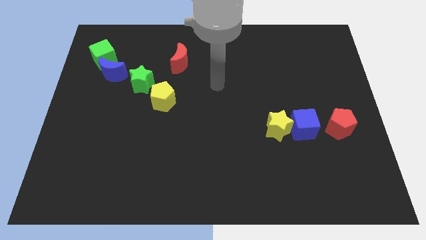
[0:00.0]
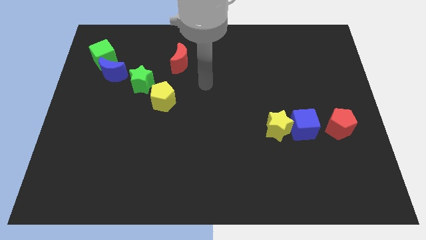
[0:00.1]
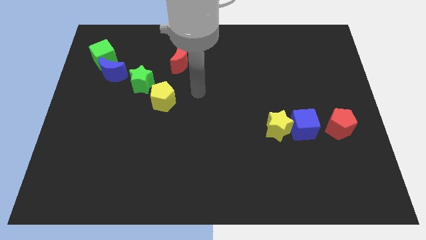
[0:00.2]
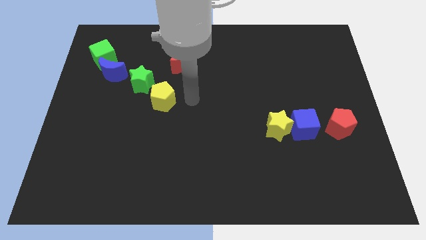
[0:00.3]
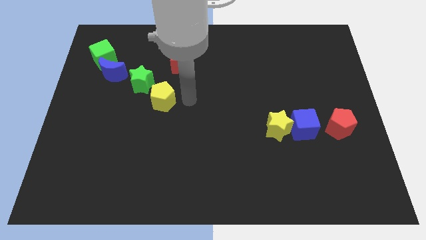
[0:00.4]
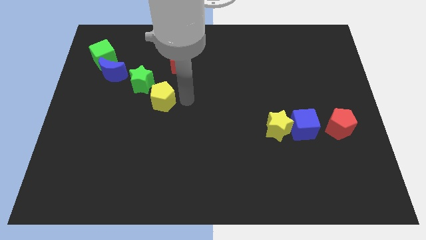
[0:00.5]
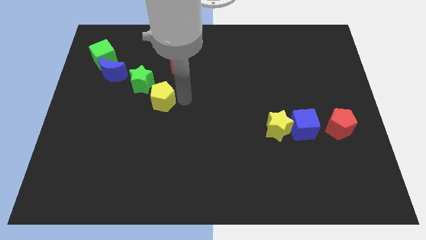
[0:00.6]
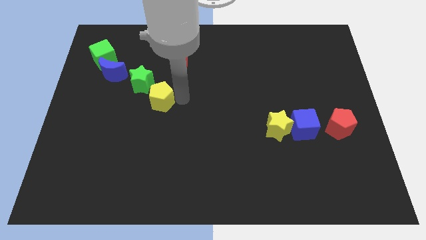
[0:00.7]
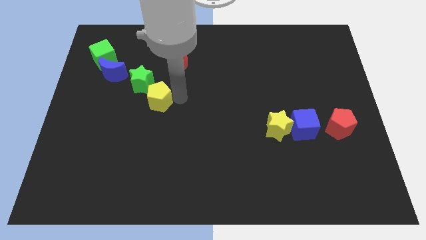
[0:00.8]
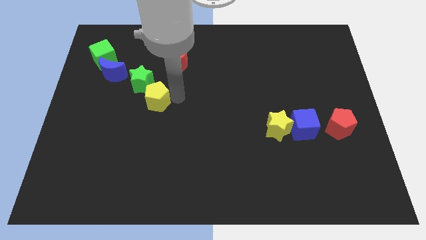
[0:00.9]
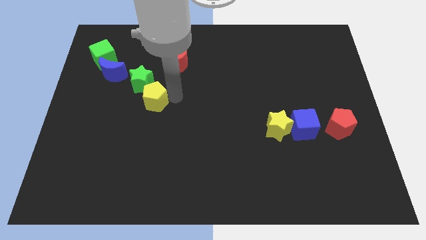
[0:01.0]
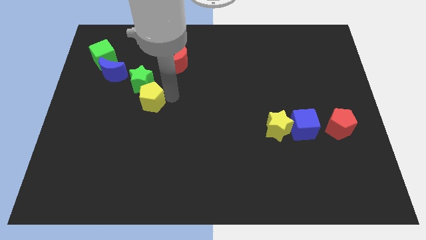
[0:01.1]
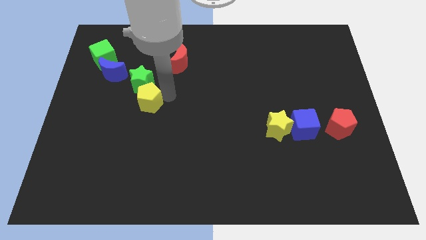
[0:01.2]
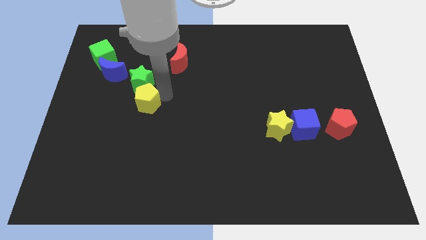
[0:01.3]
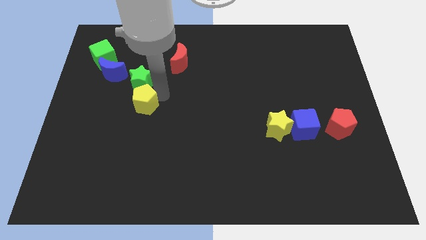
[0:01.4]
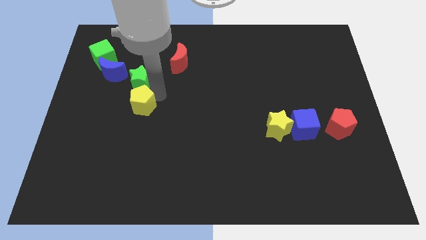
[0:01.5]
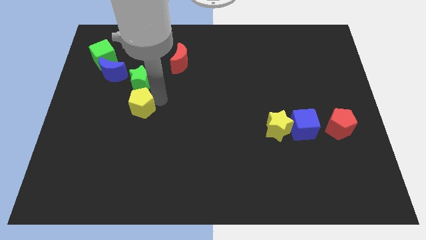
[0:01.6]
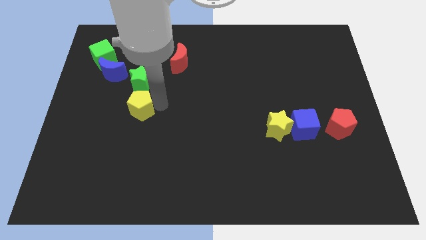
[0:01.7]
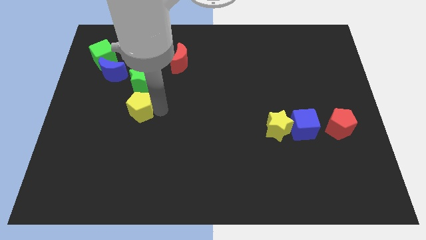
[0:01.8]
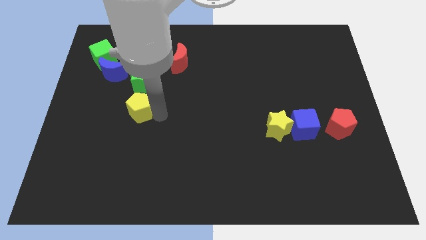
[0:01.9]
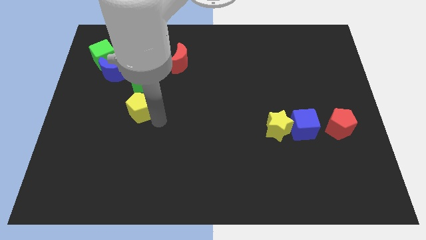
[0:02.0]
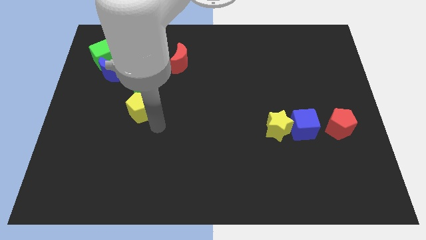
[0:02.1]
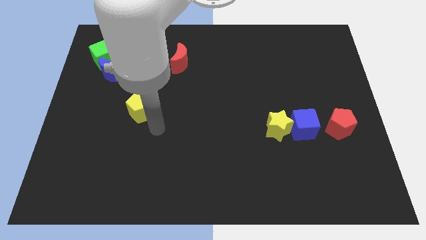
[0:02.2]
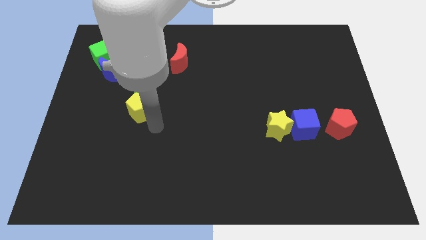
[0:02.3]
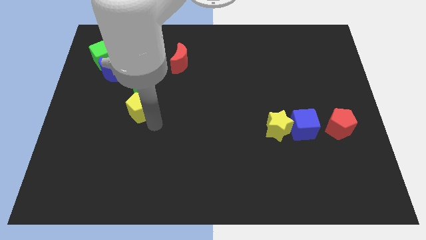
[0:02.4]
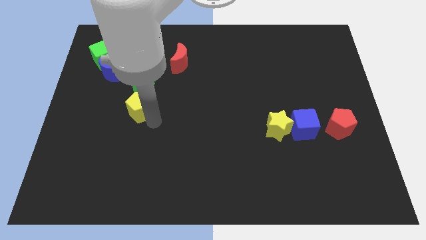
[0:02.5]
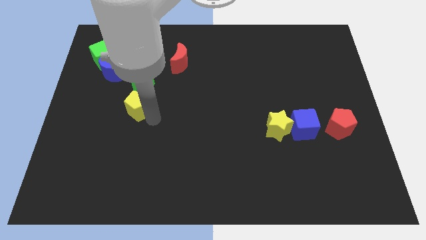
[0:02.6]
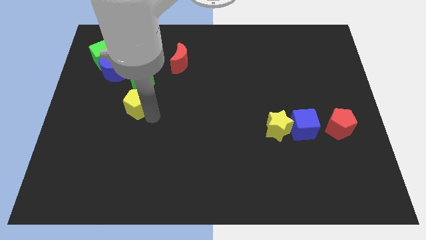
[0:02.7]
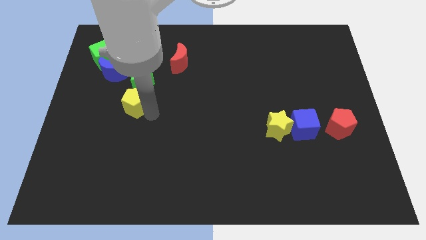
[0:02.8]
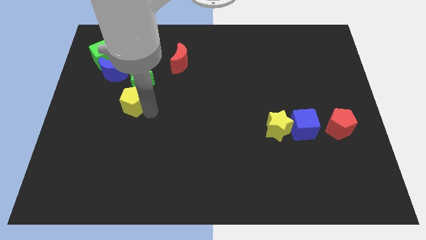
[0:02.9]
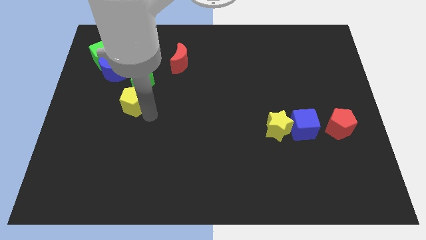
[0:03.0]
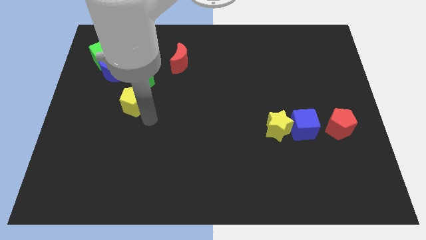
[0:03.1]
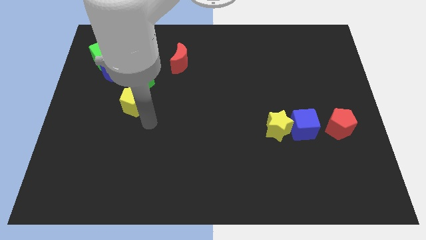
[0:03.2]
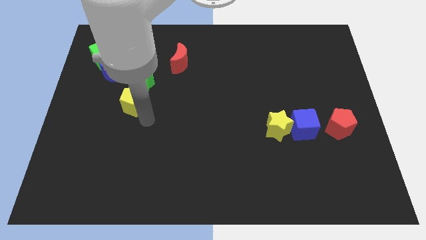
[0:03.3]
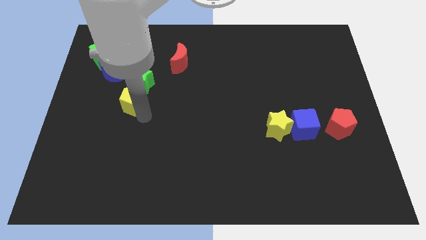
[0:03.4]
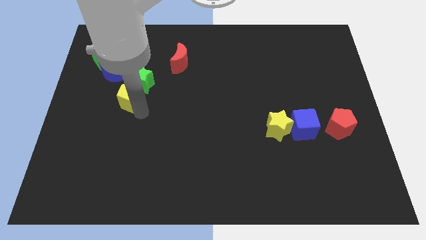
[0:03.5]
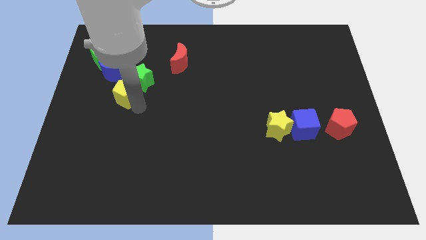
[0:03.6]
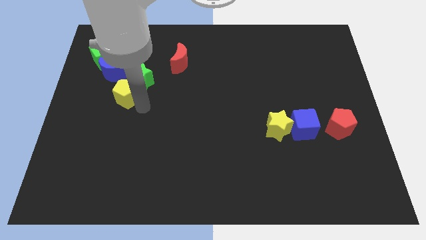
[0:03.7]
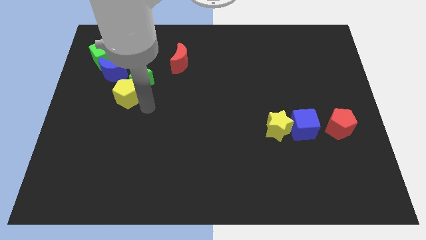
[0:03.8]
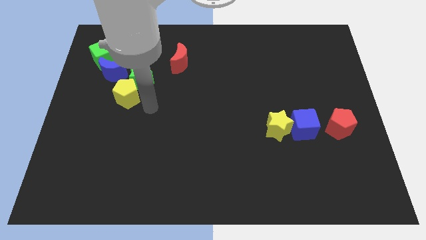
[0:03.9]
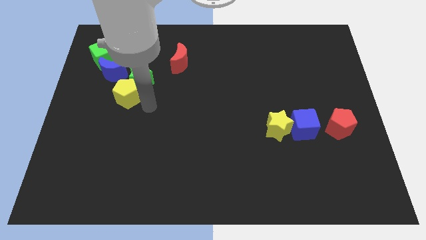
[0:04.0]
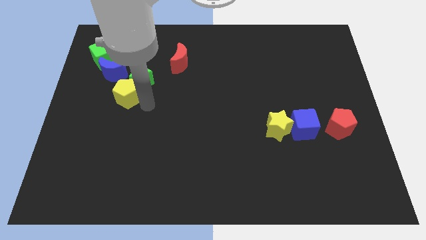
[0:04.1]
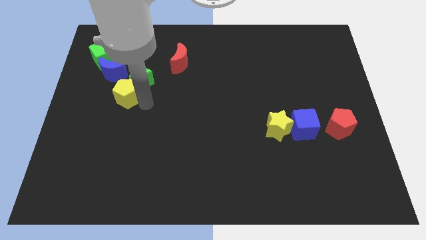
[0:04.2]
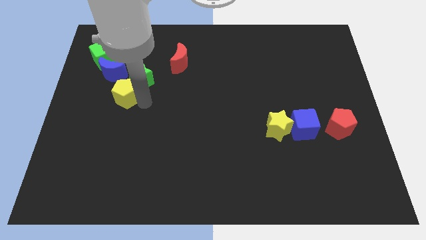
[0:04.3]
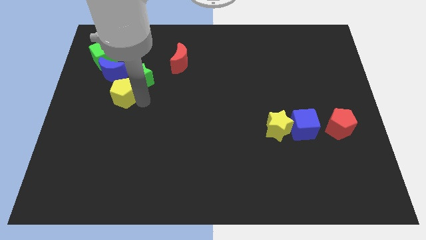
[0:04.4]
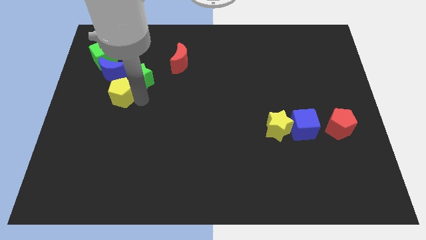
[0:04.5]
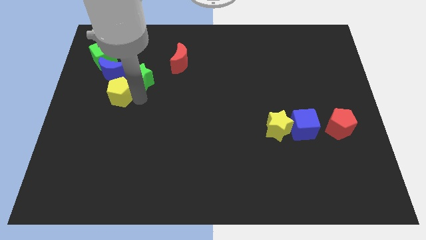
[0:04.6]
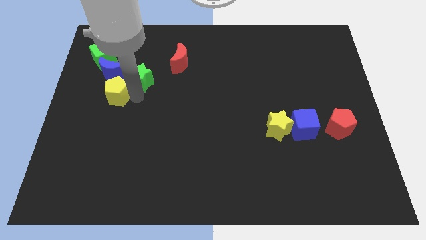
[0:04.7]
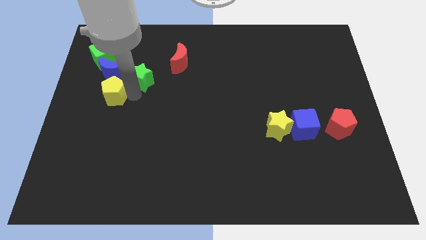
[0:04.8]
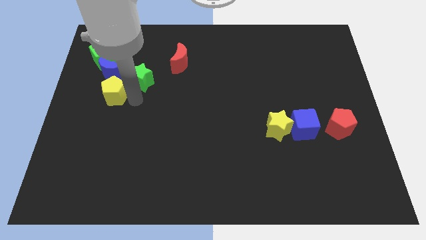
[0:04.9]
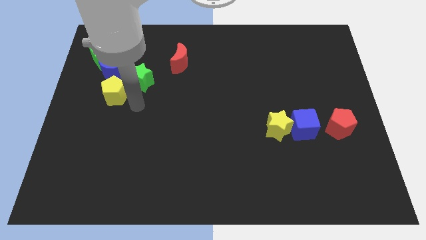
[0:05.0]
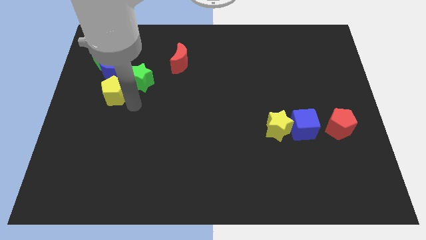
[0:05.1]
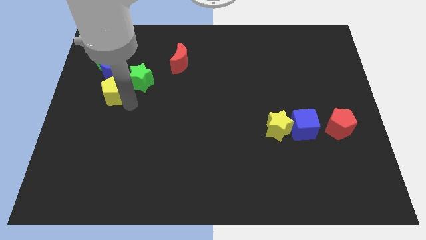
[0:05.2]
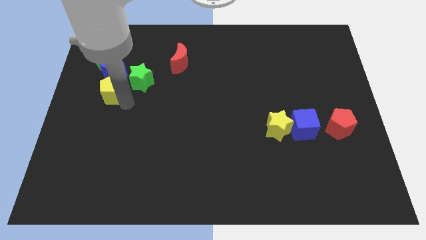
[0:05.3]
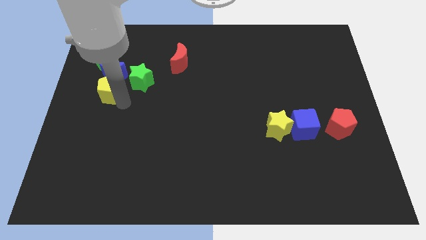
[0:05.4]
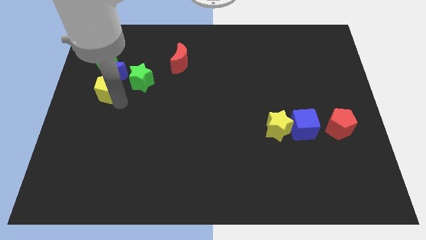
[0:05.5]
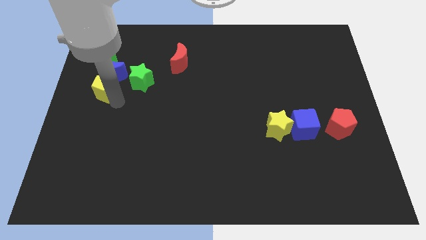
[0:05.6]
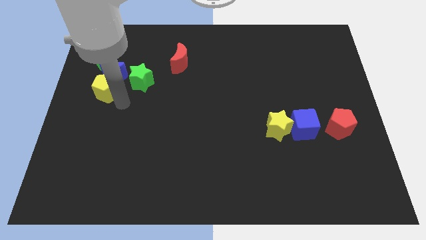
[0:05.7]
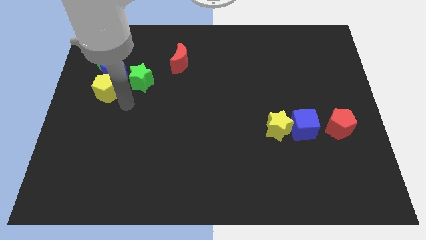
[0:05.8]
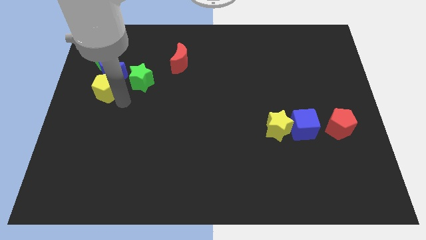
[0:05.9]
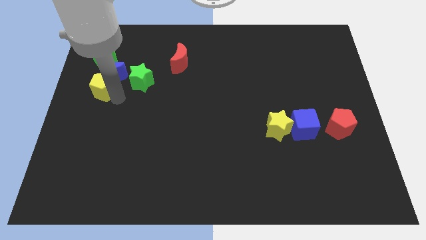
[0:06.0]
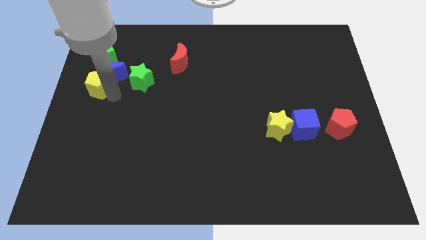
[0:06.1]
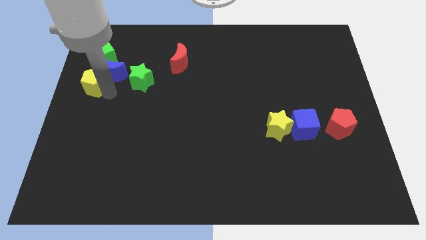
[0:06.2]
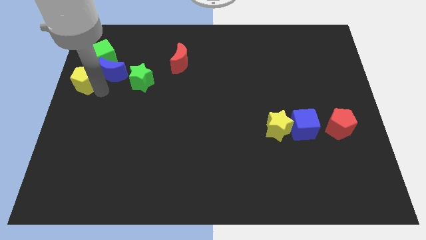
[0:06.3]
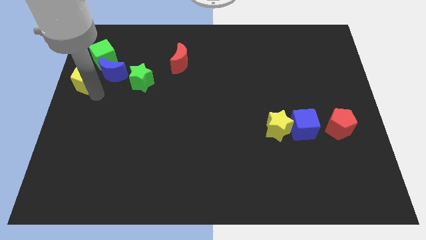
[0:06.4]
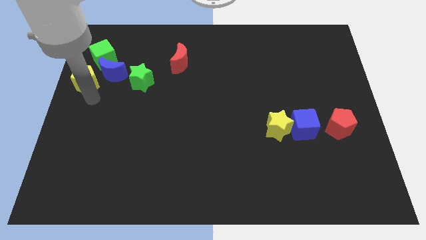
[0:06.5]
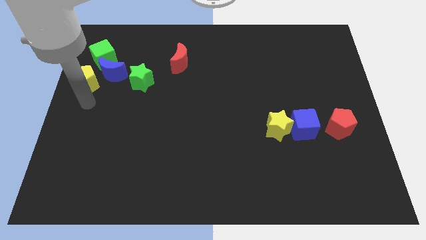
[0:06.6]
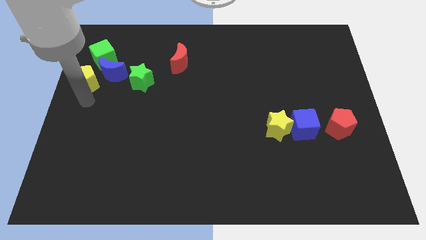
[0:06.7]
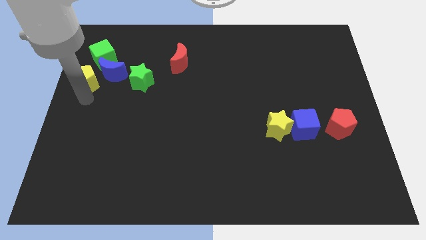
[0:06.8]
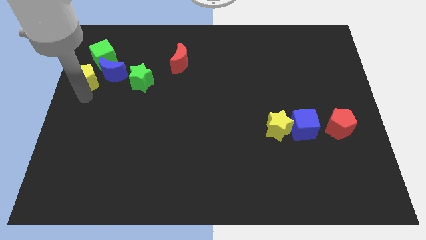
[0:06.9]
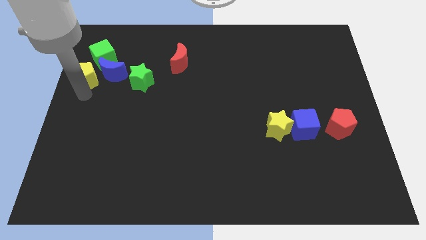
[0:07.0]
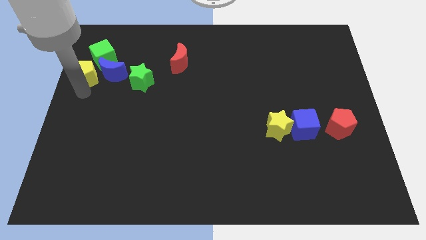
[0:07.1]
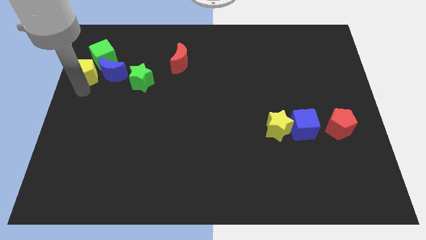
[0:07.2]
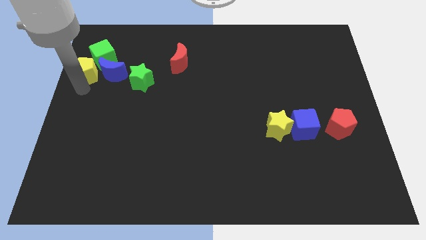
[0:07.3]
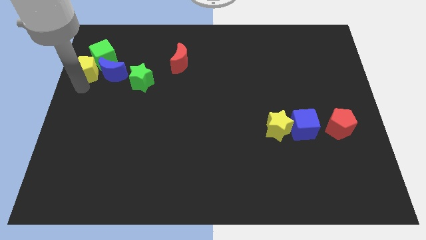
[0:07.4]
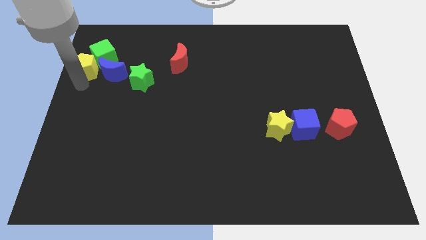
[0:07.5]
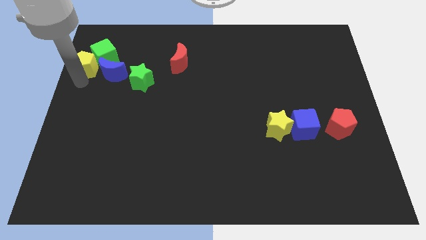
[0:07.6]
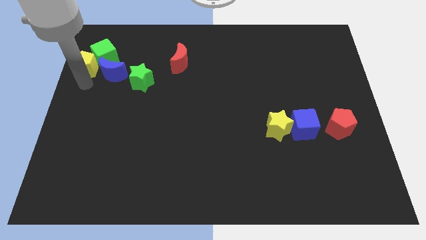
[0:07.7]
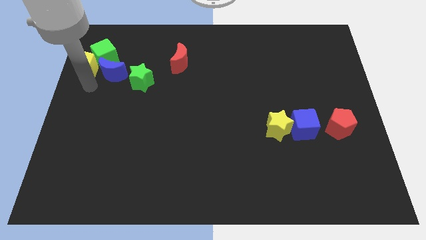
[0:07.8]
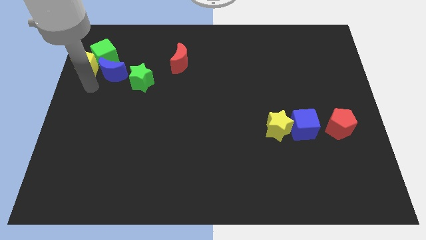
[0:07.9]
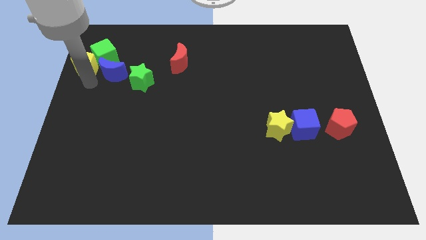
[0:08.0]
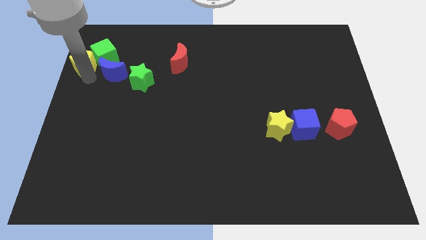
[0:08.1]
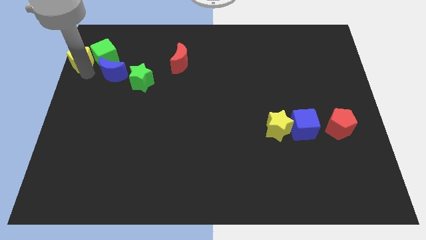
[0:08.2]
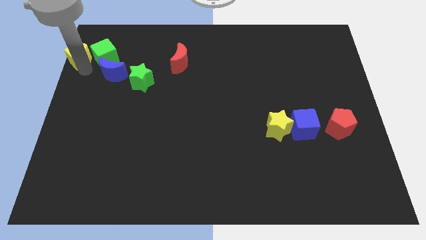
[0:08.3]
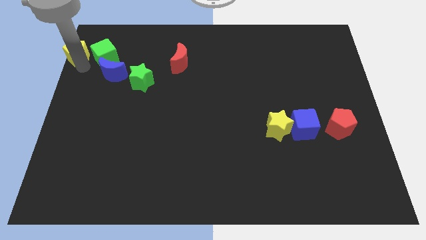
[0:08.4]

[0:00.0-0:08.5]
push the yellow pentagon to the top left
